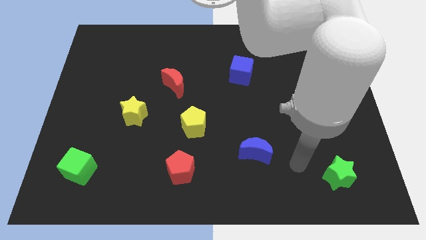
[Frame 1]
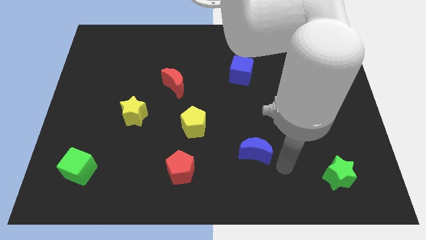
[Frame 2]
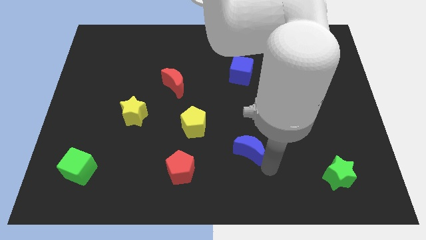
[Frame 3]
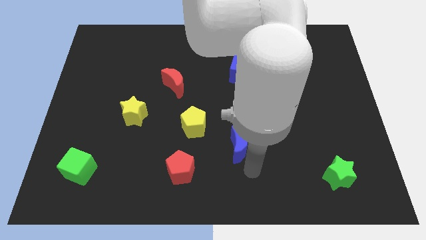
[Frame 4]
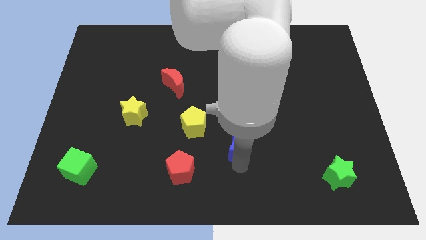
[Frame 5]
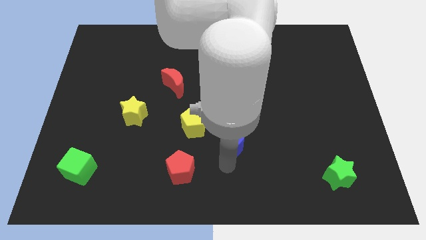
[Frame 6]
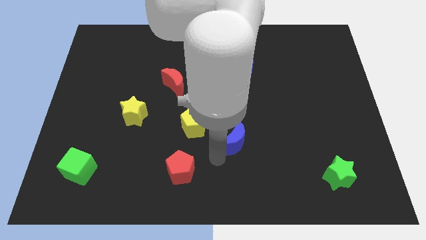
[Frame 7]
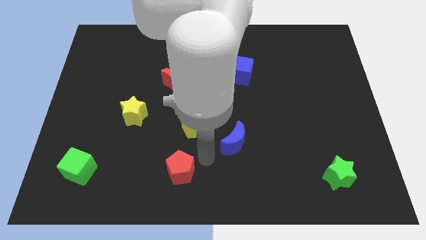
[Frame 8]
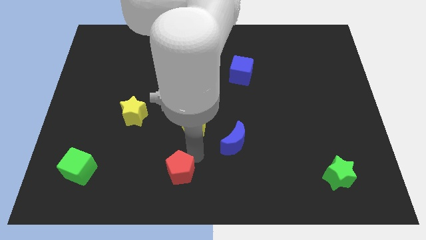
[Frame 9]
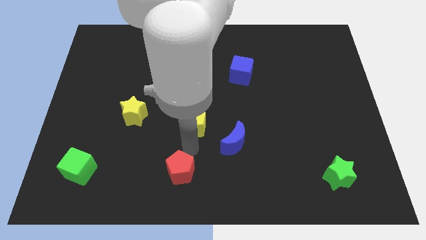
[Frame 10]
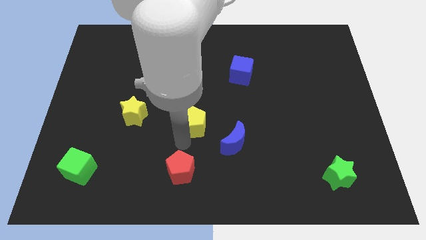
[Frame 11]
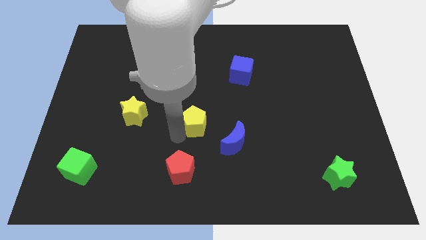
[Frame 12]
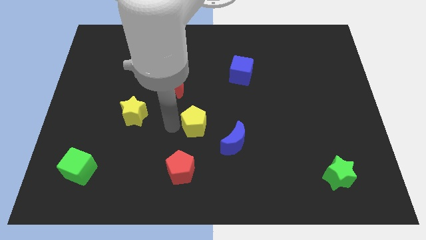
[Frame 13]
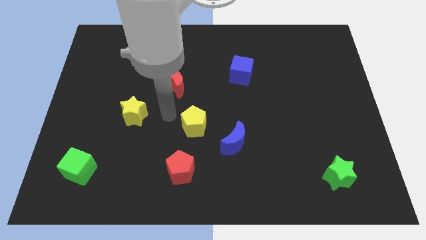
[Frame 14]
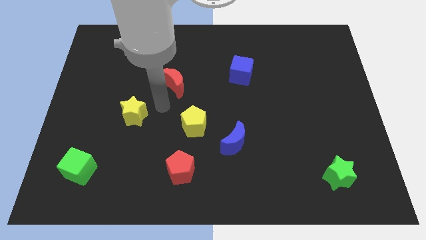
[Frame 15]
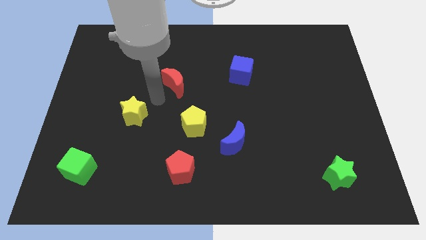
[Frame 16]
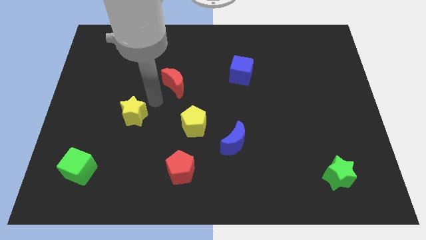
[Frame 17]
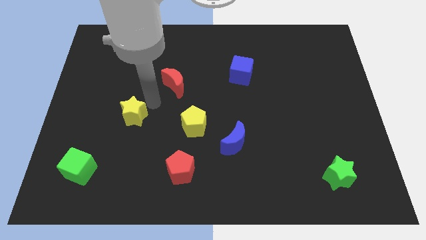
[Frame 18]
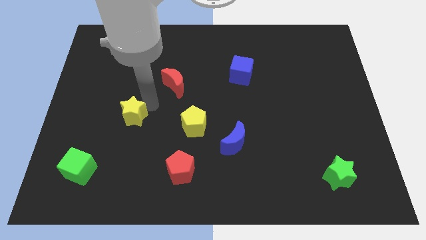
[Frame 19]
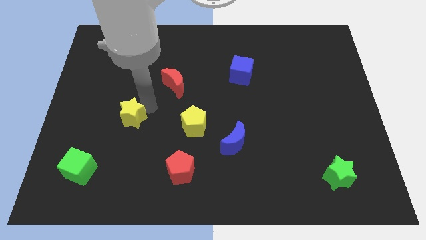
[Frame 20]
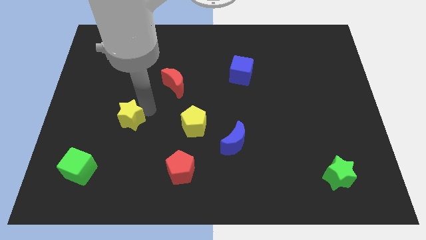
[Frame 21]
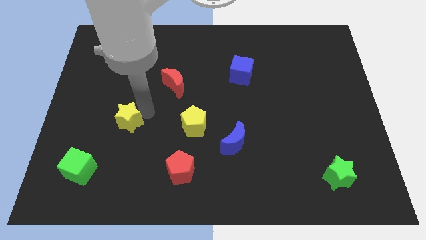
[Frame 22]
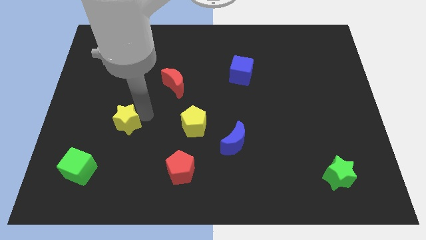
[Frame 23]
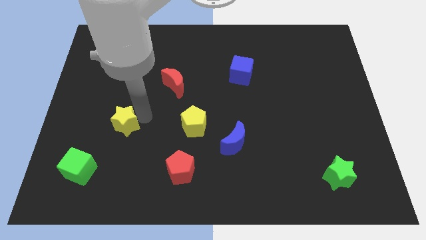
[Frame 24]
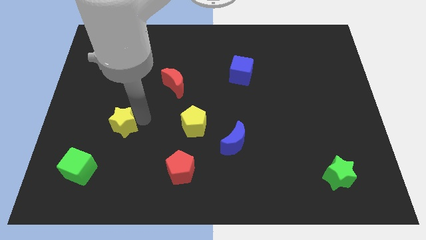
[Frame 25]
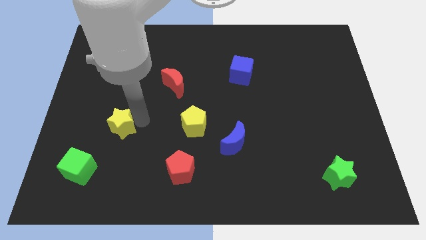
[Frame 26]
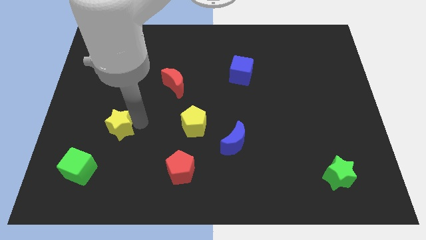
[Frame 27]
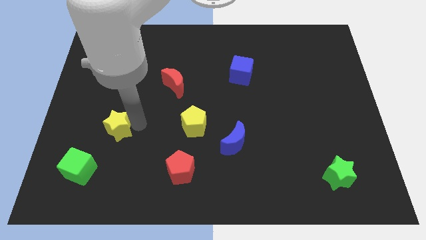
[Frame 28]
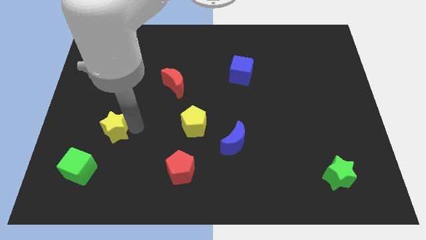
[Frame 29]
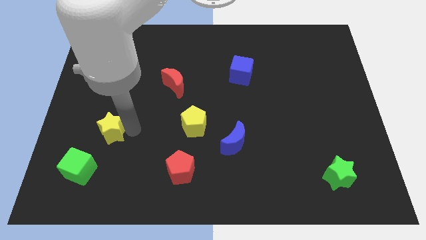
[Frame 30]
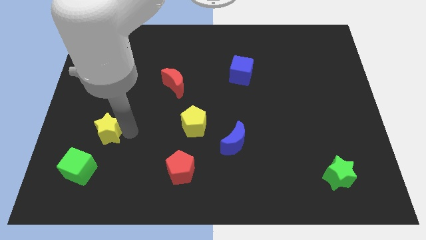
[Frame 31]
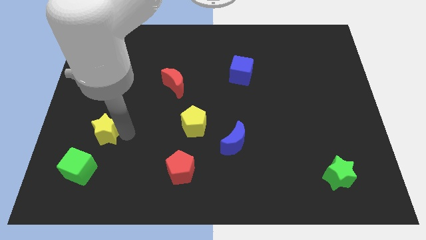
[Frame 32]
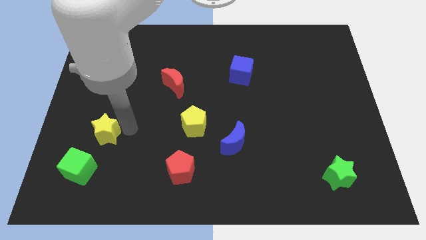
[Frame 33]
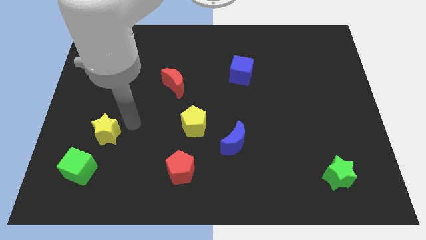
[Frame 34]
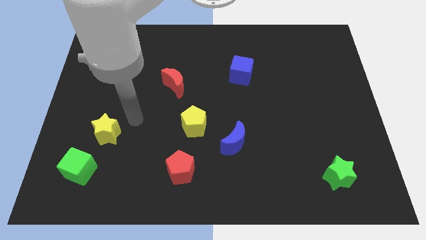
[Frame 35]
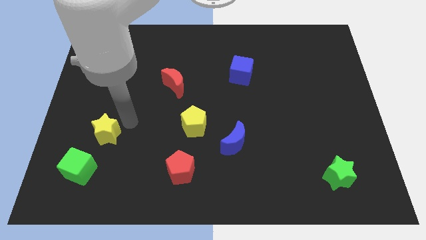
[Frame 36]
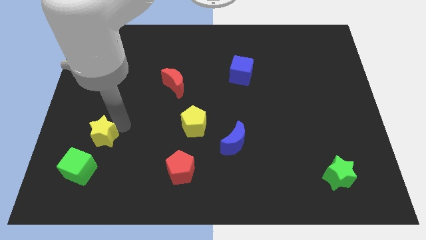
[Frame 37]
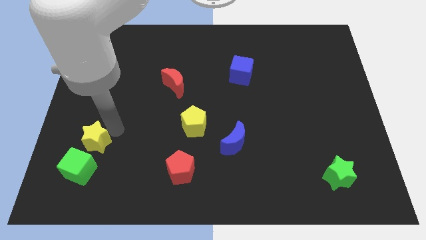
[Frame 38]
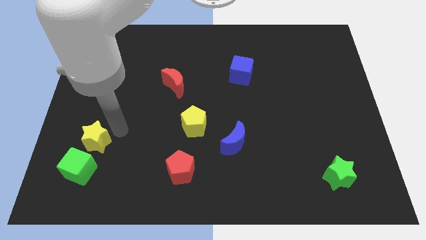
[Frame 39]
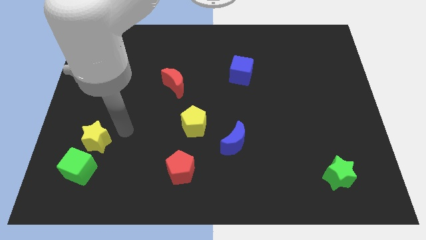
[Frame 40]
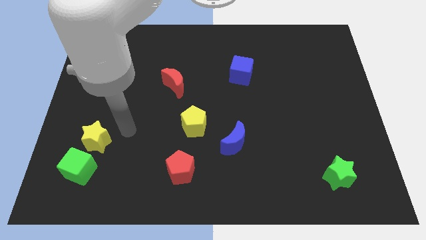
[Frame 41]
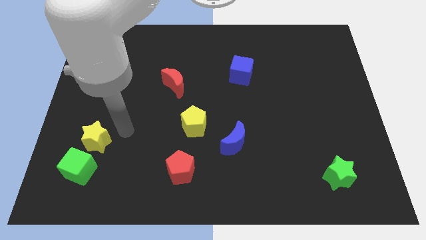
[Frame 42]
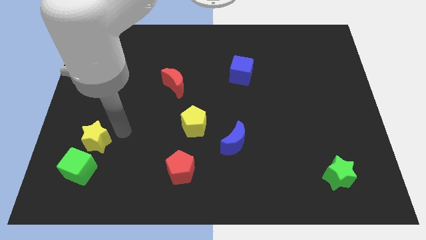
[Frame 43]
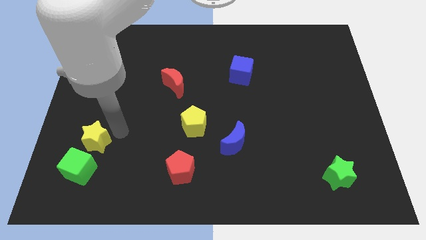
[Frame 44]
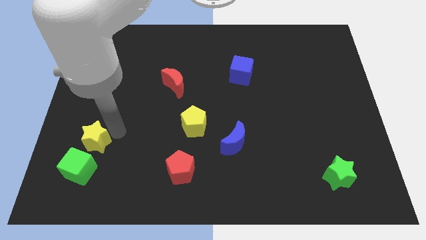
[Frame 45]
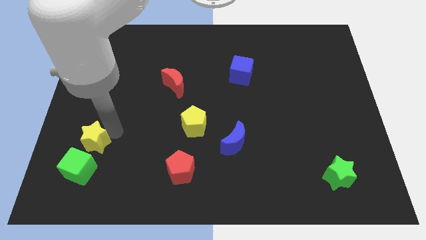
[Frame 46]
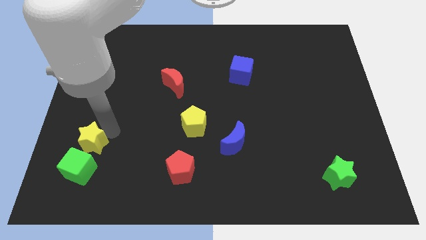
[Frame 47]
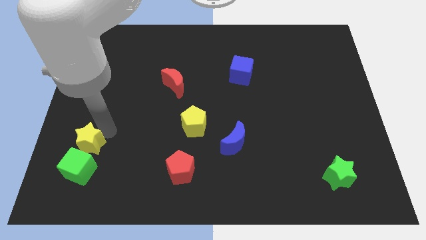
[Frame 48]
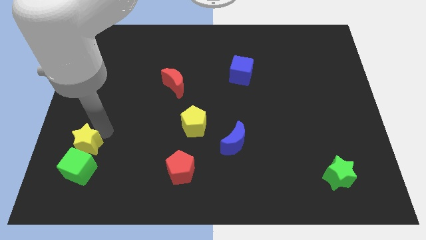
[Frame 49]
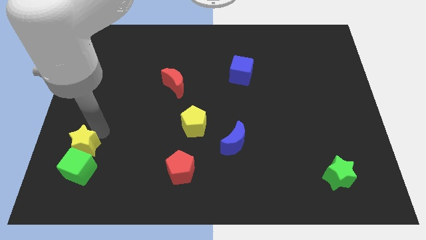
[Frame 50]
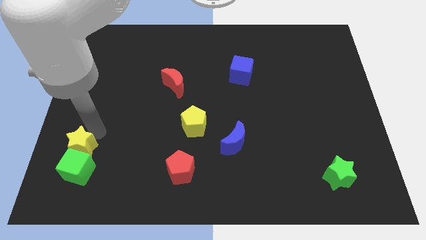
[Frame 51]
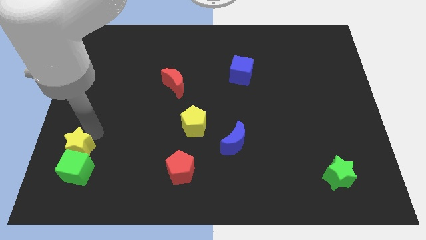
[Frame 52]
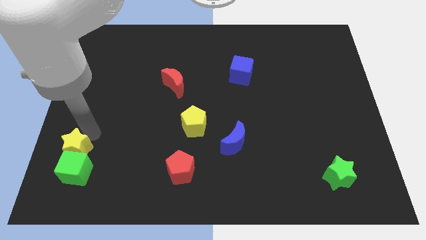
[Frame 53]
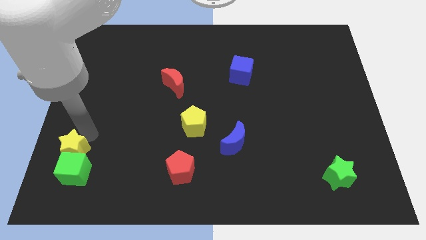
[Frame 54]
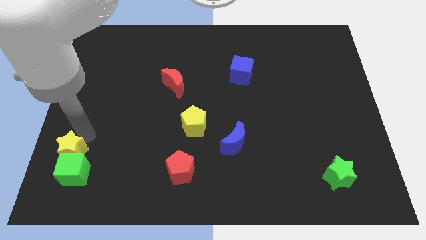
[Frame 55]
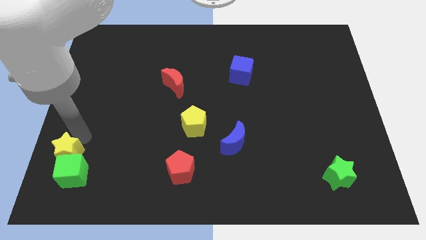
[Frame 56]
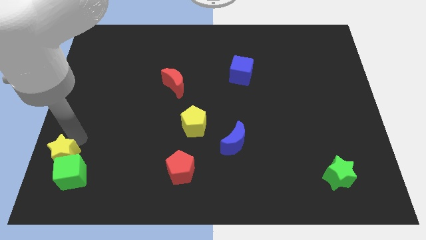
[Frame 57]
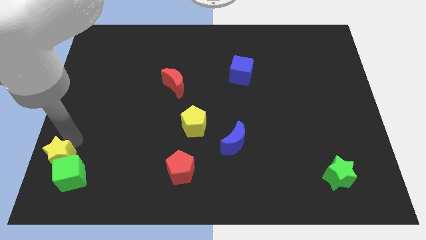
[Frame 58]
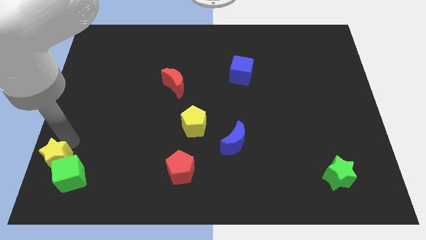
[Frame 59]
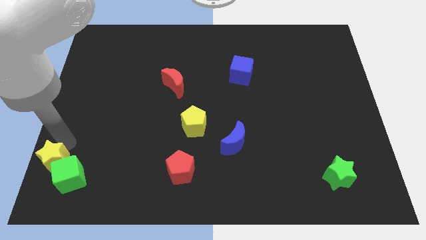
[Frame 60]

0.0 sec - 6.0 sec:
push the yellow star to the bottom left

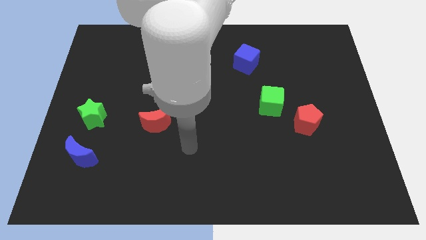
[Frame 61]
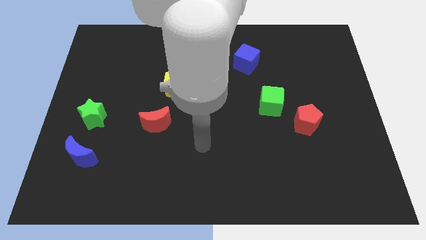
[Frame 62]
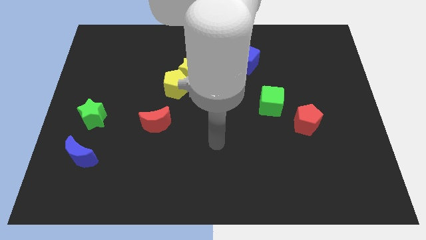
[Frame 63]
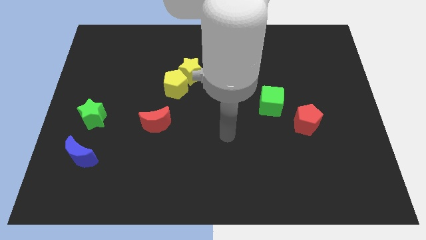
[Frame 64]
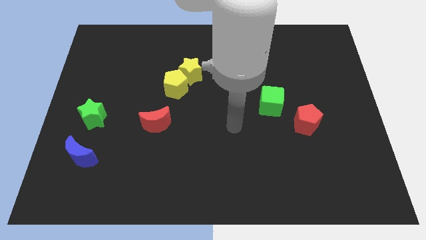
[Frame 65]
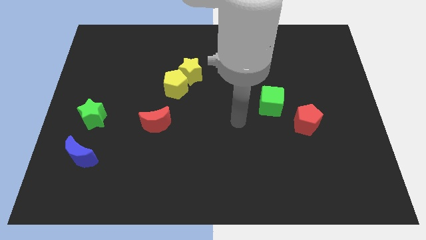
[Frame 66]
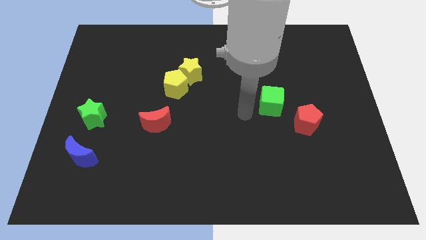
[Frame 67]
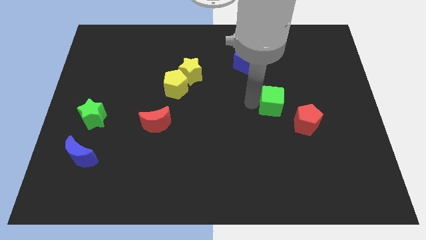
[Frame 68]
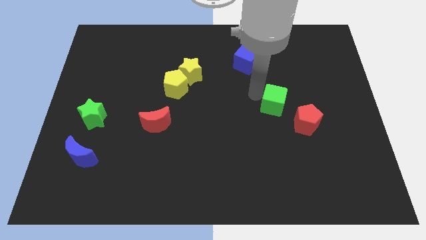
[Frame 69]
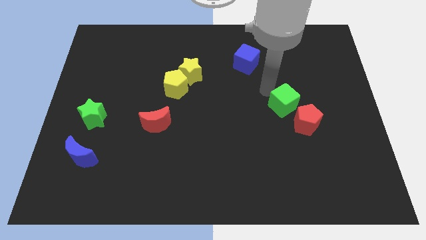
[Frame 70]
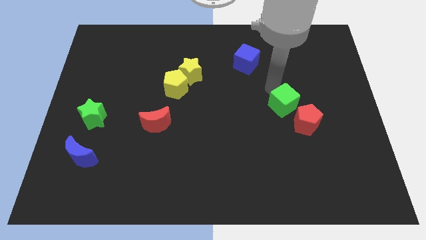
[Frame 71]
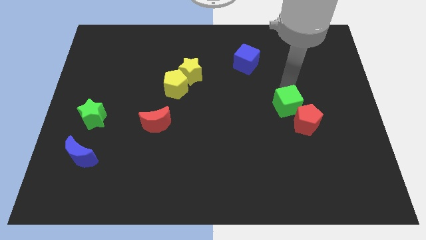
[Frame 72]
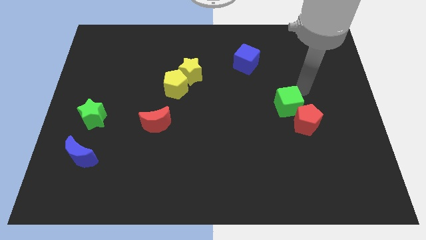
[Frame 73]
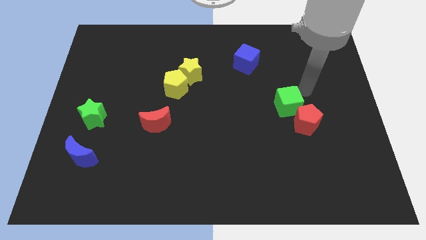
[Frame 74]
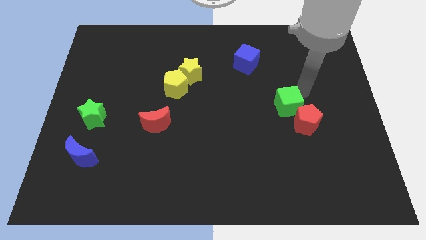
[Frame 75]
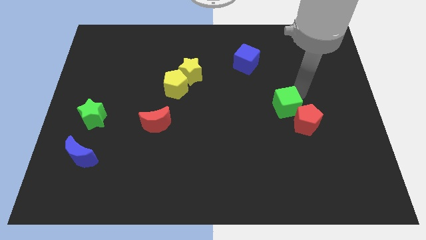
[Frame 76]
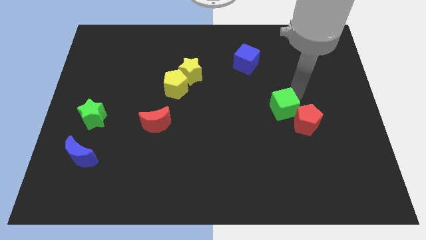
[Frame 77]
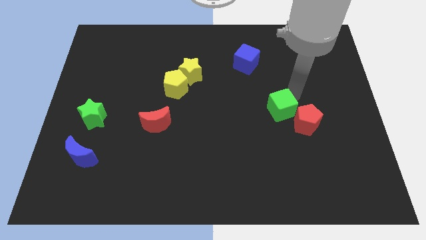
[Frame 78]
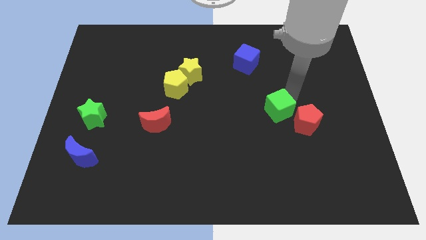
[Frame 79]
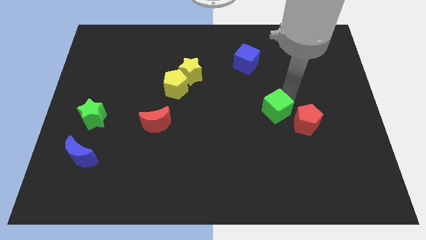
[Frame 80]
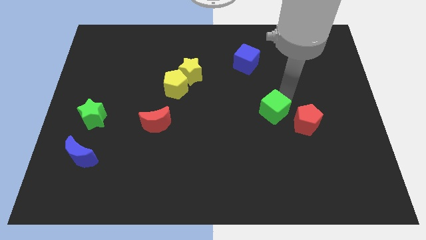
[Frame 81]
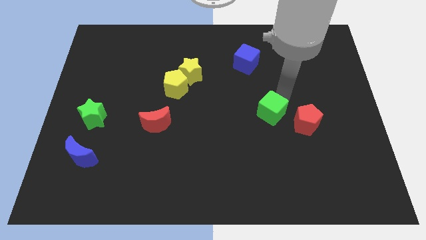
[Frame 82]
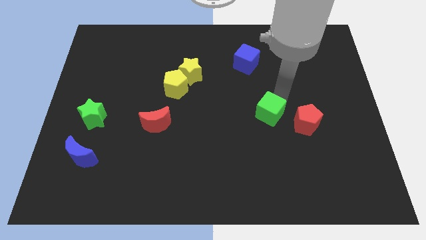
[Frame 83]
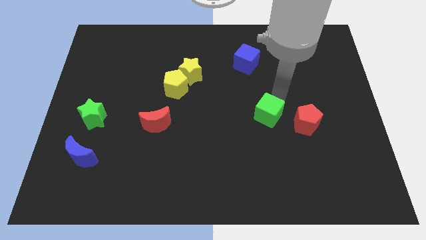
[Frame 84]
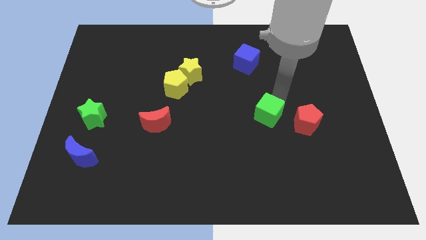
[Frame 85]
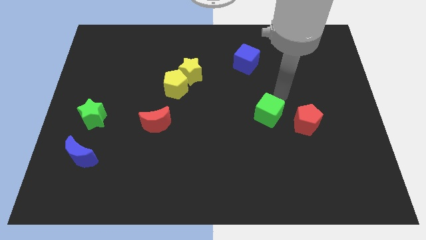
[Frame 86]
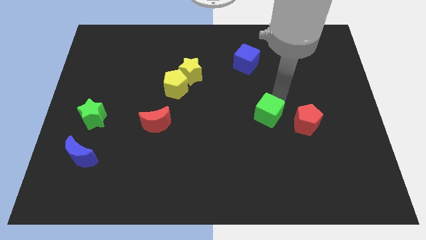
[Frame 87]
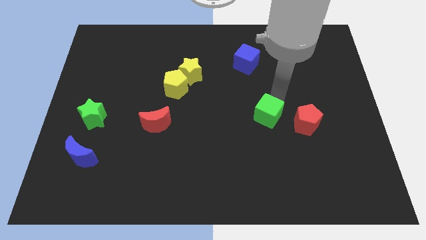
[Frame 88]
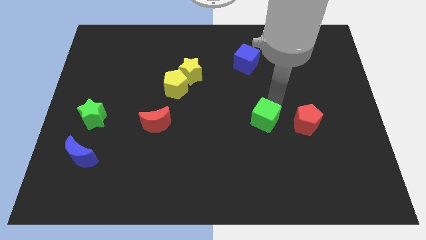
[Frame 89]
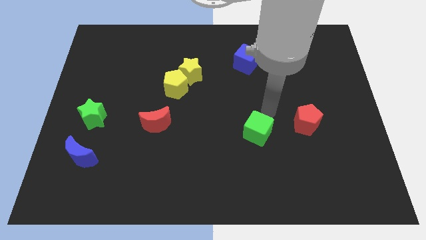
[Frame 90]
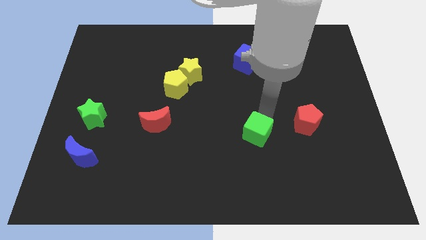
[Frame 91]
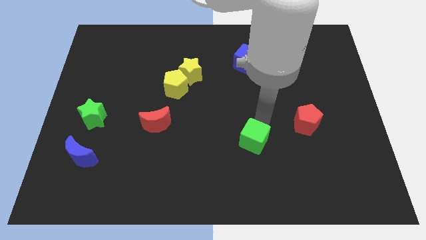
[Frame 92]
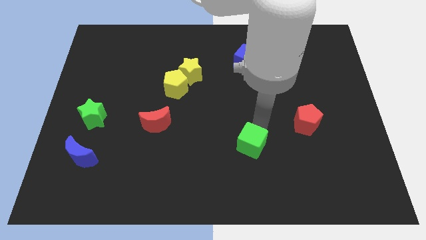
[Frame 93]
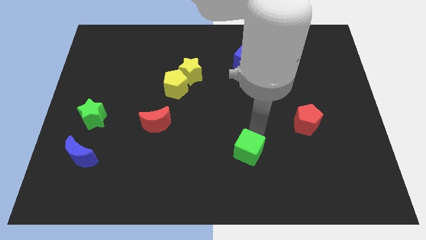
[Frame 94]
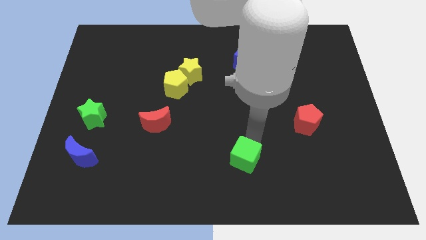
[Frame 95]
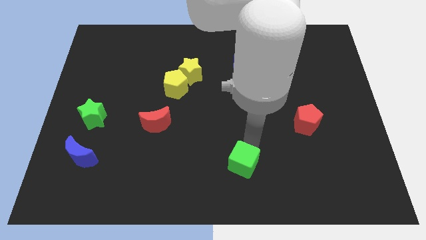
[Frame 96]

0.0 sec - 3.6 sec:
push the green cube to the bottom side
